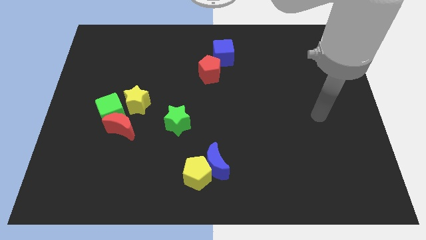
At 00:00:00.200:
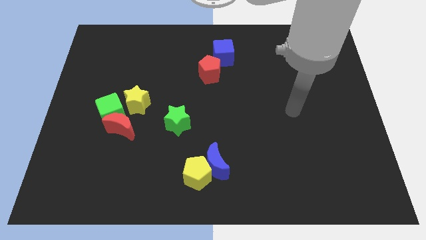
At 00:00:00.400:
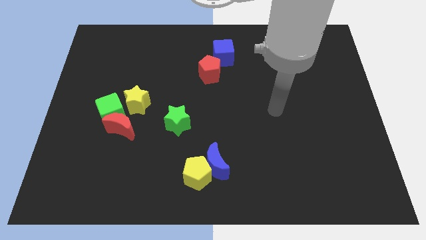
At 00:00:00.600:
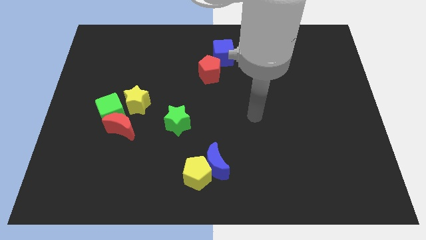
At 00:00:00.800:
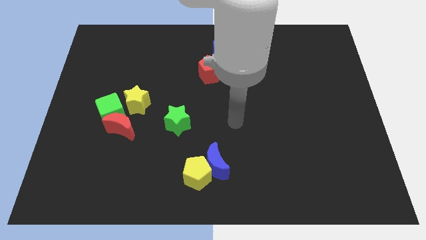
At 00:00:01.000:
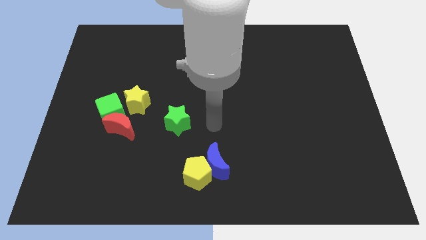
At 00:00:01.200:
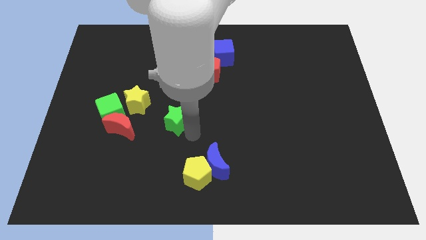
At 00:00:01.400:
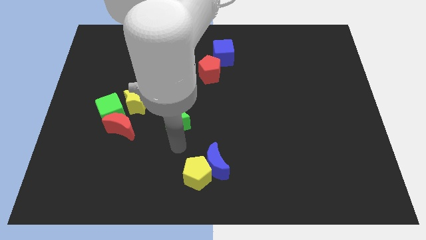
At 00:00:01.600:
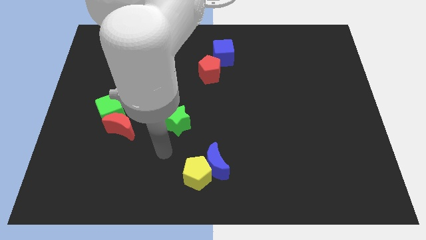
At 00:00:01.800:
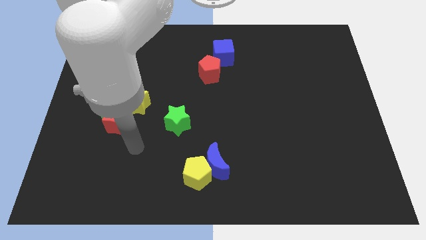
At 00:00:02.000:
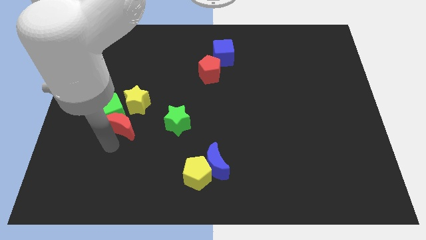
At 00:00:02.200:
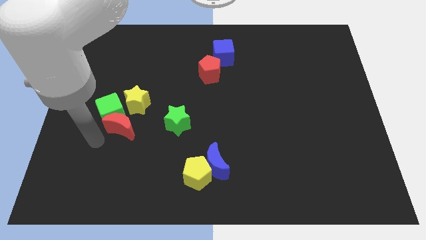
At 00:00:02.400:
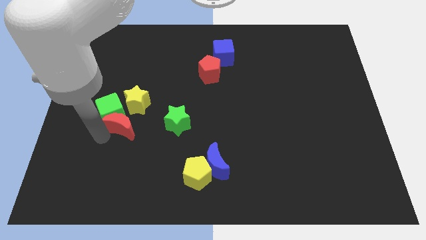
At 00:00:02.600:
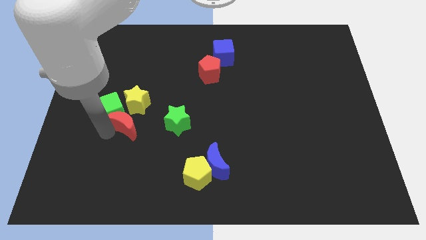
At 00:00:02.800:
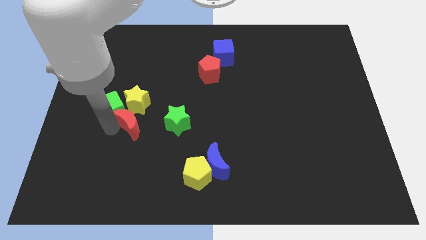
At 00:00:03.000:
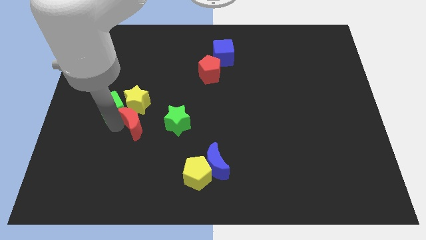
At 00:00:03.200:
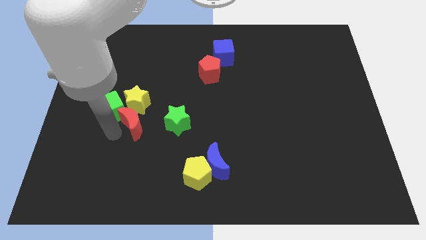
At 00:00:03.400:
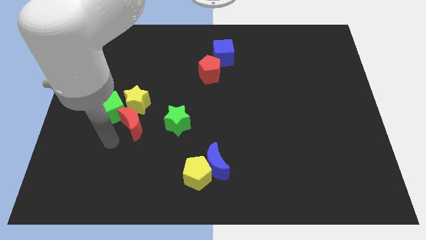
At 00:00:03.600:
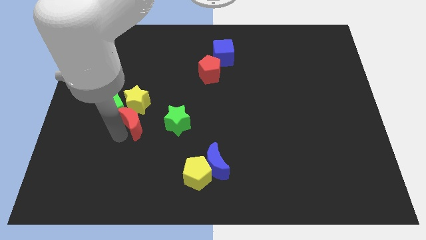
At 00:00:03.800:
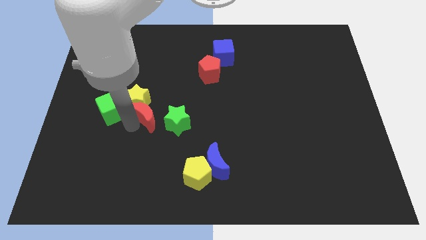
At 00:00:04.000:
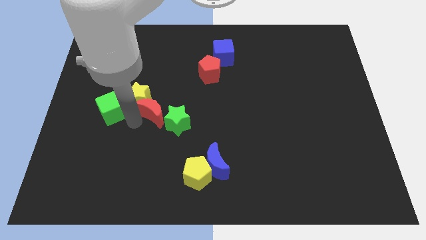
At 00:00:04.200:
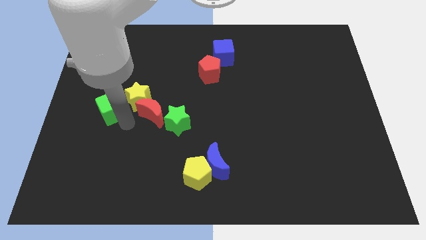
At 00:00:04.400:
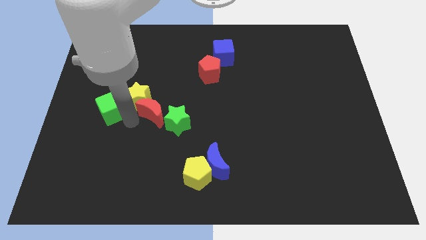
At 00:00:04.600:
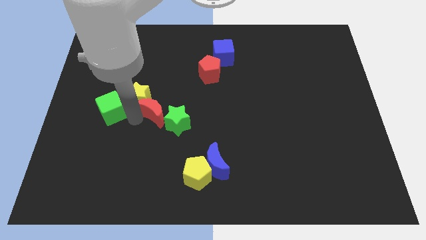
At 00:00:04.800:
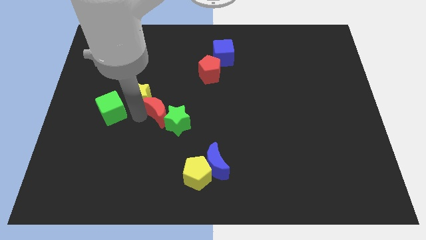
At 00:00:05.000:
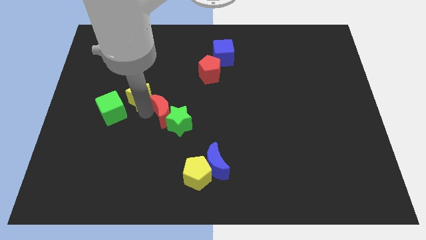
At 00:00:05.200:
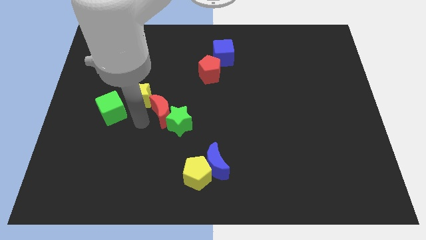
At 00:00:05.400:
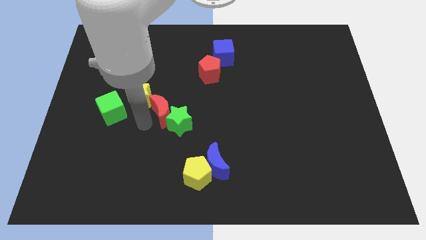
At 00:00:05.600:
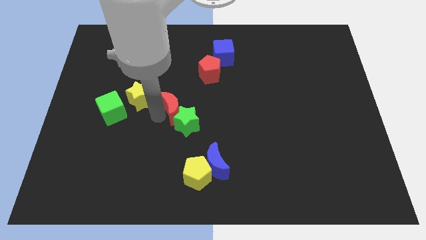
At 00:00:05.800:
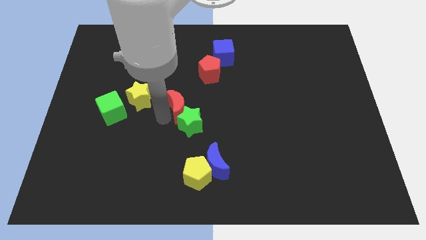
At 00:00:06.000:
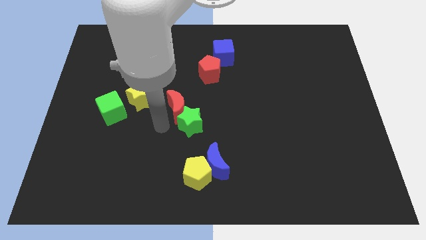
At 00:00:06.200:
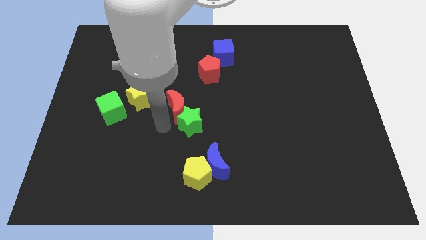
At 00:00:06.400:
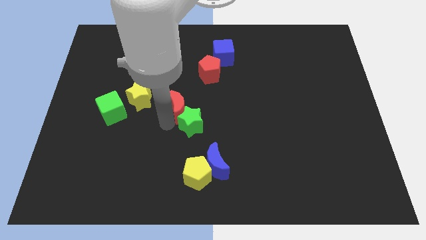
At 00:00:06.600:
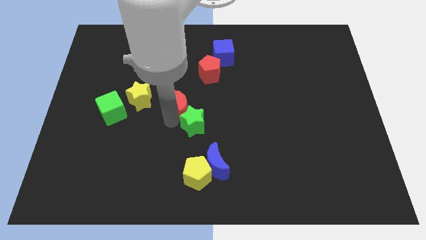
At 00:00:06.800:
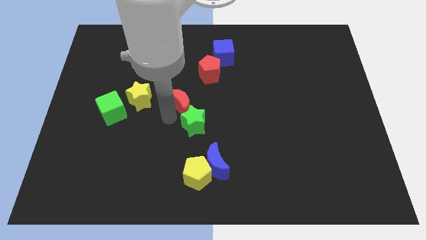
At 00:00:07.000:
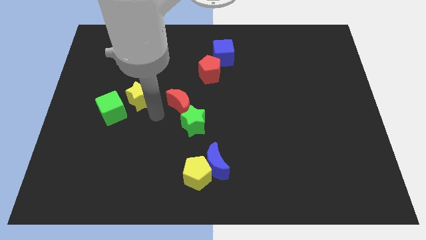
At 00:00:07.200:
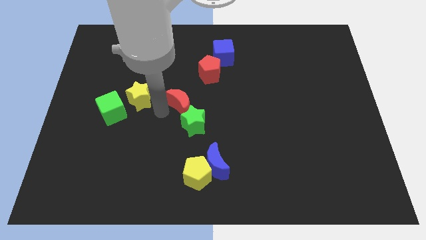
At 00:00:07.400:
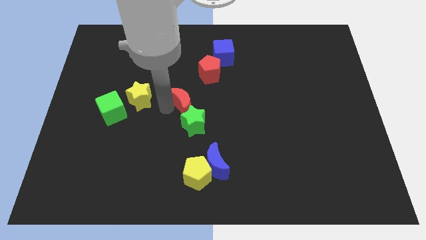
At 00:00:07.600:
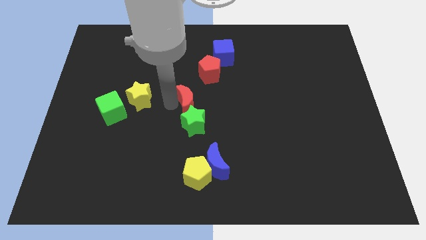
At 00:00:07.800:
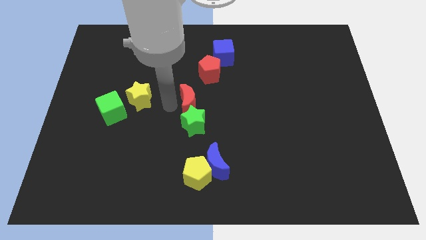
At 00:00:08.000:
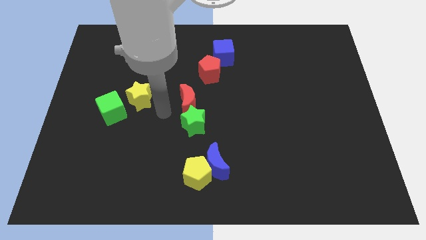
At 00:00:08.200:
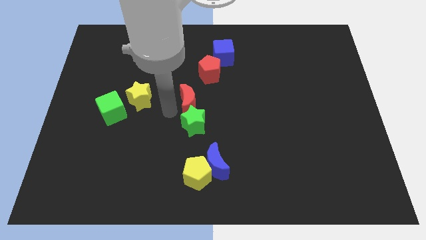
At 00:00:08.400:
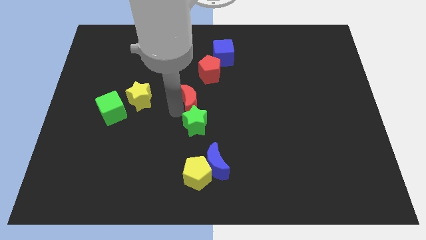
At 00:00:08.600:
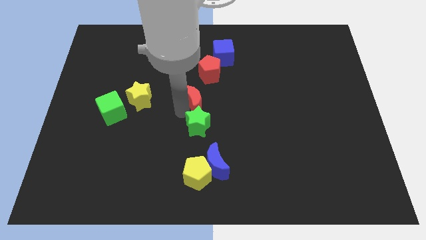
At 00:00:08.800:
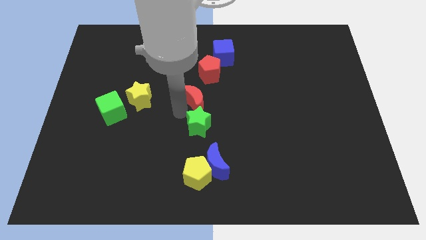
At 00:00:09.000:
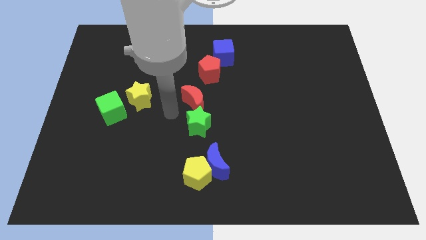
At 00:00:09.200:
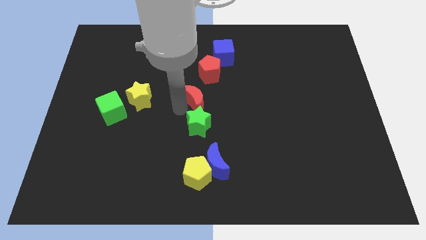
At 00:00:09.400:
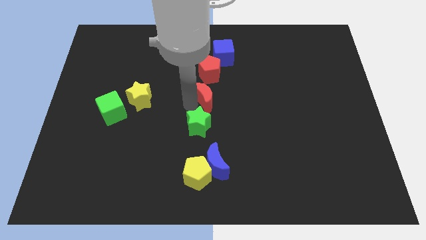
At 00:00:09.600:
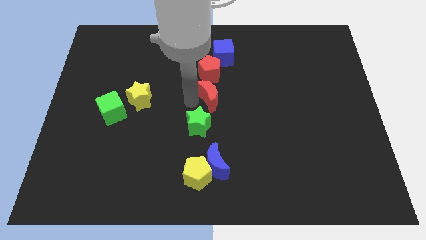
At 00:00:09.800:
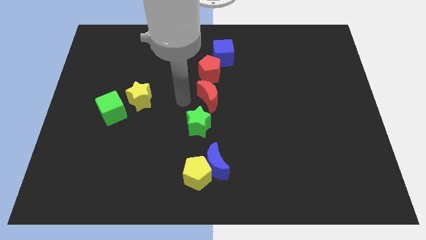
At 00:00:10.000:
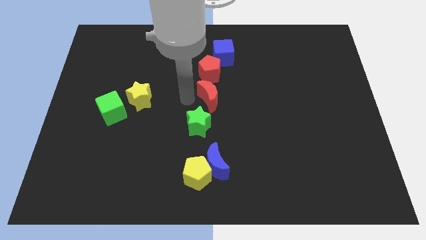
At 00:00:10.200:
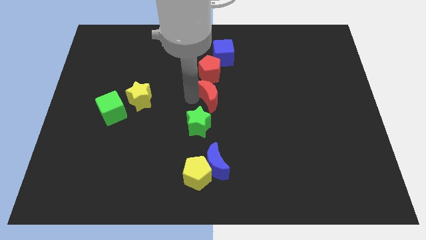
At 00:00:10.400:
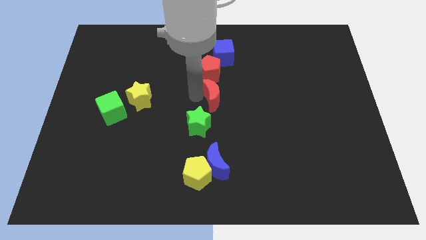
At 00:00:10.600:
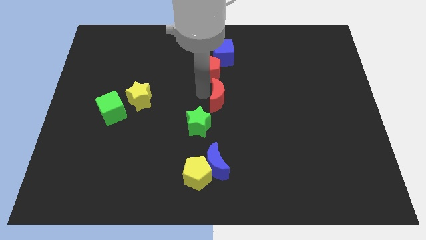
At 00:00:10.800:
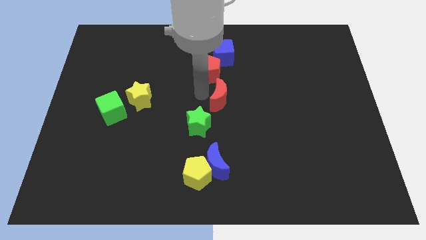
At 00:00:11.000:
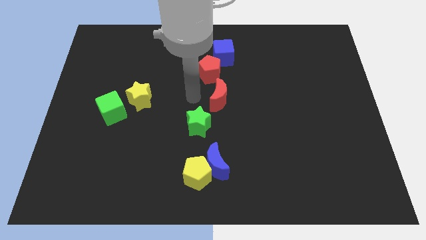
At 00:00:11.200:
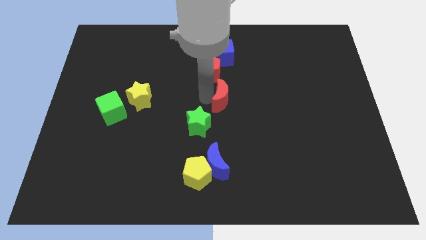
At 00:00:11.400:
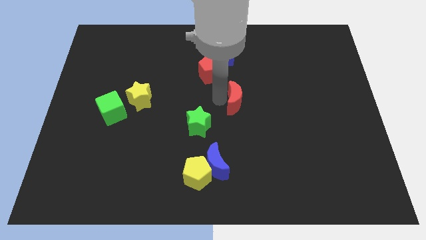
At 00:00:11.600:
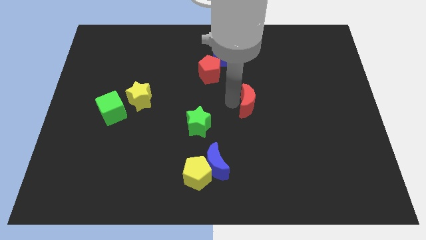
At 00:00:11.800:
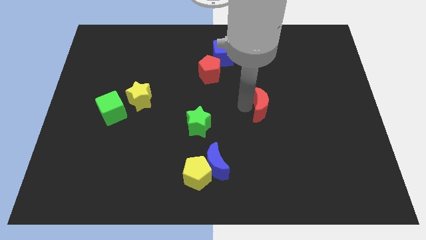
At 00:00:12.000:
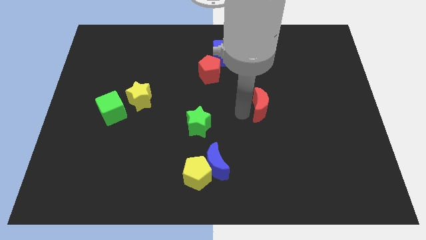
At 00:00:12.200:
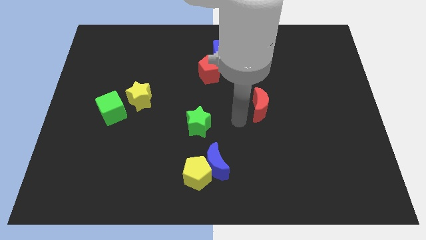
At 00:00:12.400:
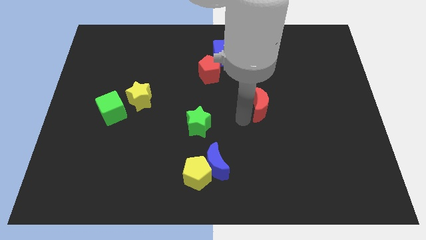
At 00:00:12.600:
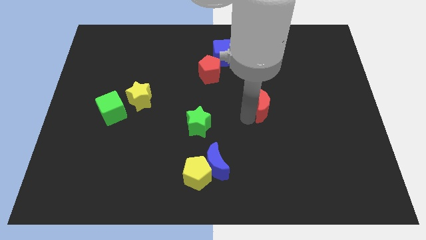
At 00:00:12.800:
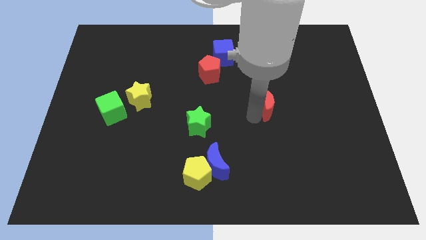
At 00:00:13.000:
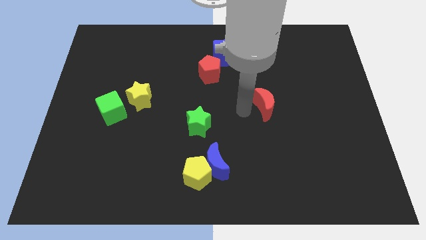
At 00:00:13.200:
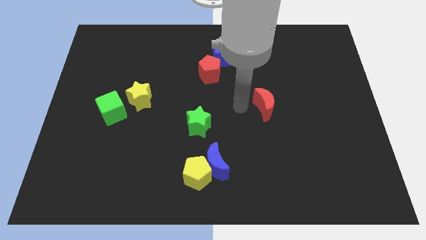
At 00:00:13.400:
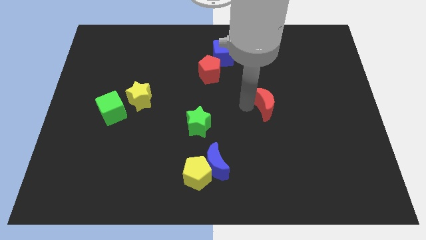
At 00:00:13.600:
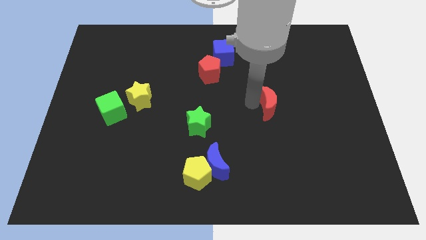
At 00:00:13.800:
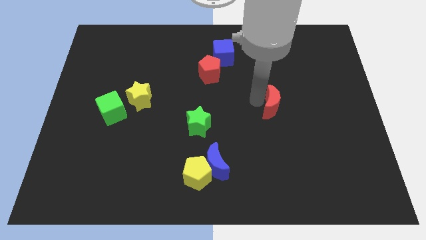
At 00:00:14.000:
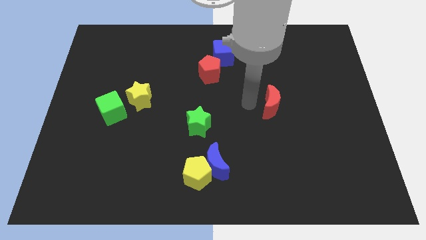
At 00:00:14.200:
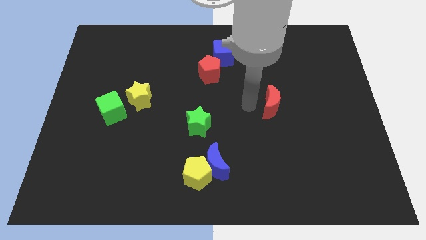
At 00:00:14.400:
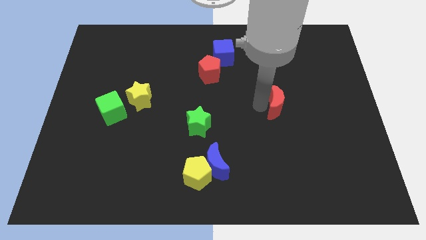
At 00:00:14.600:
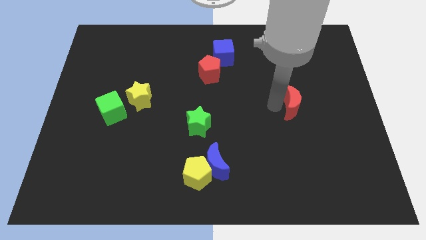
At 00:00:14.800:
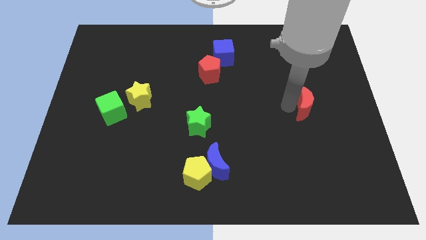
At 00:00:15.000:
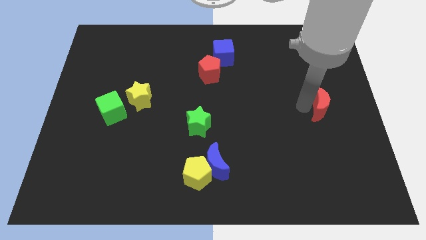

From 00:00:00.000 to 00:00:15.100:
put the red moon to the center right
